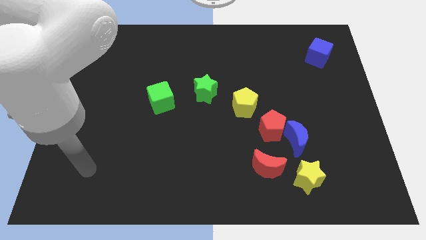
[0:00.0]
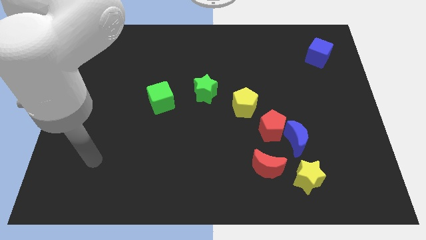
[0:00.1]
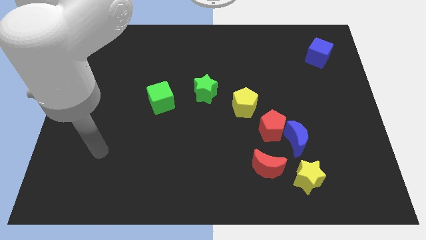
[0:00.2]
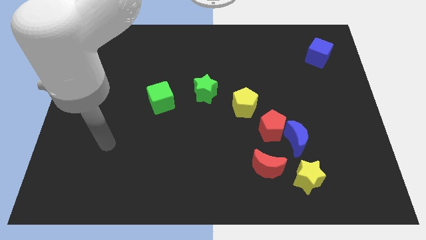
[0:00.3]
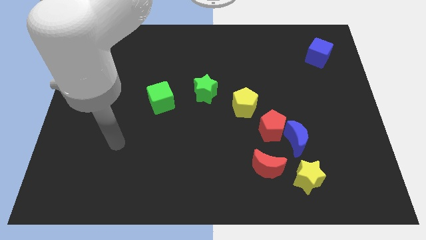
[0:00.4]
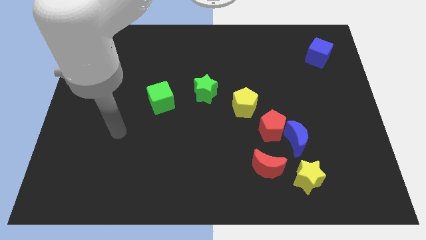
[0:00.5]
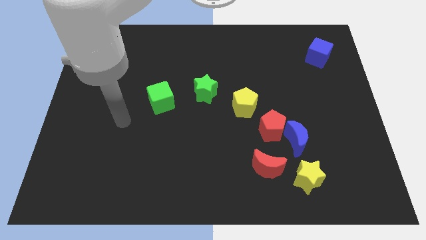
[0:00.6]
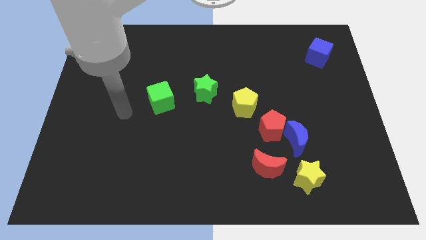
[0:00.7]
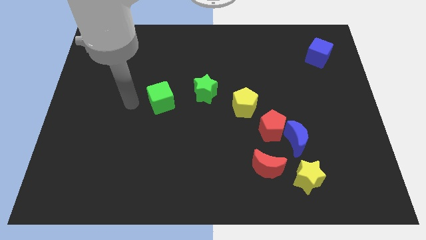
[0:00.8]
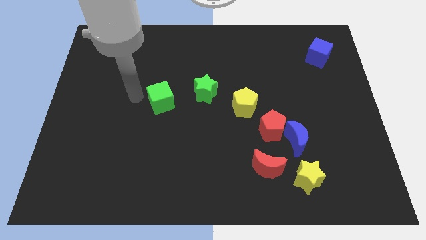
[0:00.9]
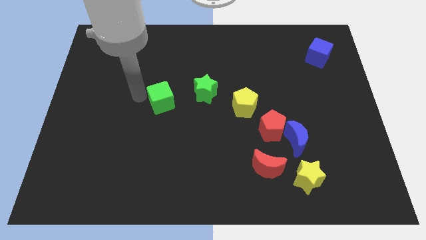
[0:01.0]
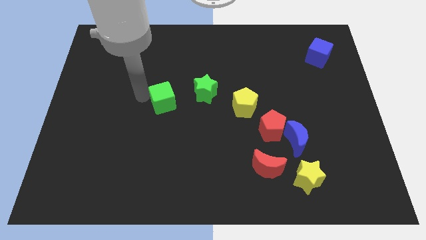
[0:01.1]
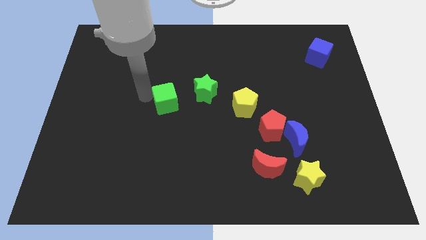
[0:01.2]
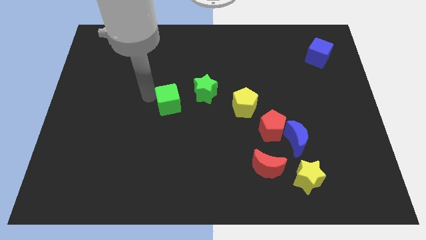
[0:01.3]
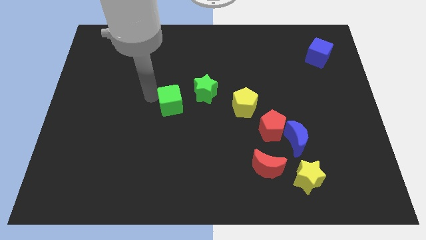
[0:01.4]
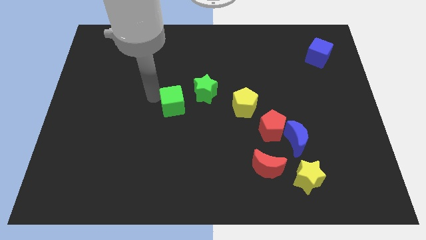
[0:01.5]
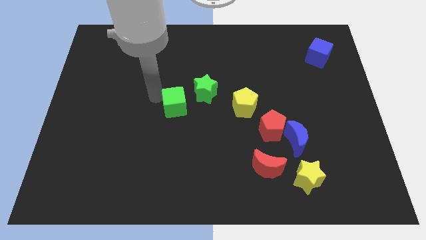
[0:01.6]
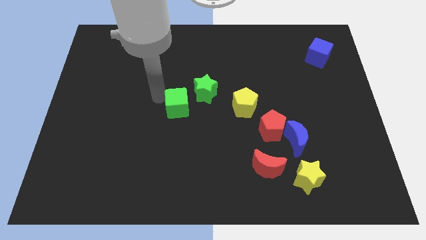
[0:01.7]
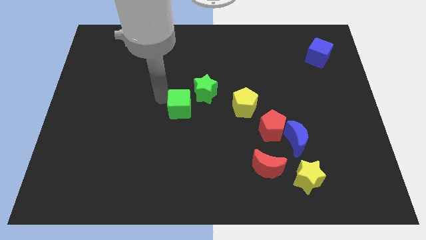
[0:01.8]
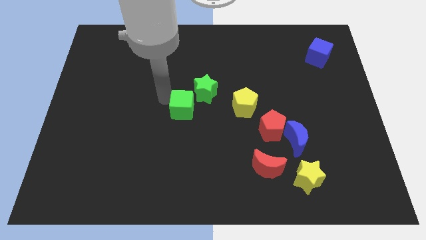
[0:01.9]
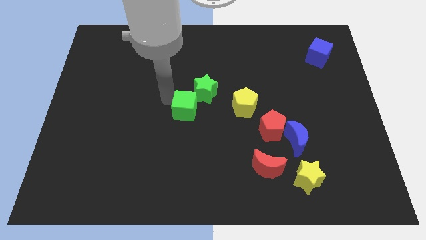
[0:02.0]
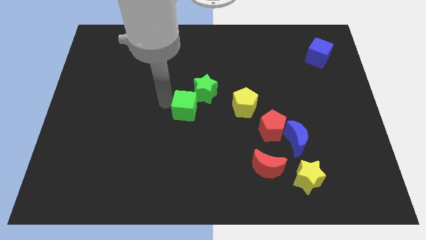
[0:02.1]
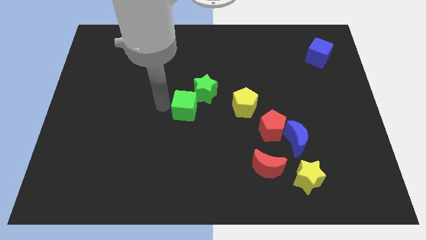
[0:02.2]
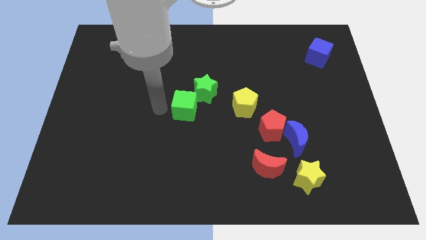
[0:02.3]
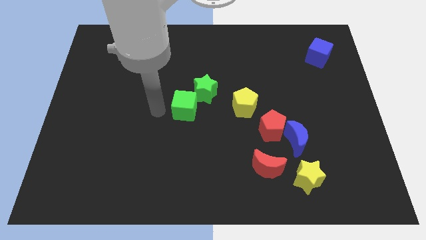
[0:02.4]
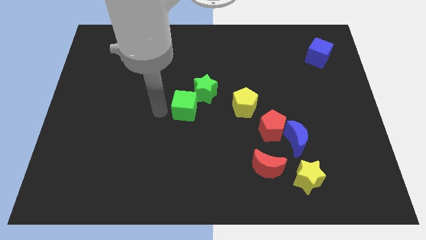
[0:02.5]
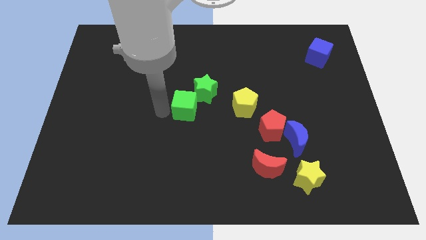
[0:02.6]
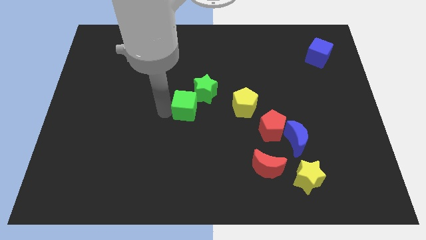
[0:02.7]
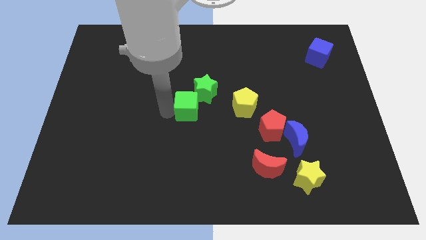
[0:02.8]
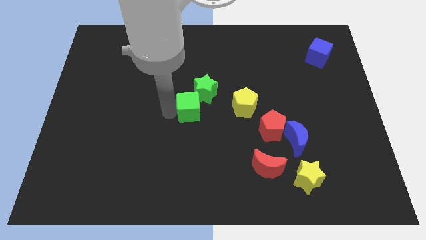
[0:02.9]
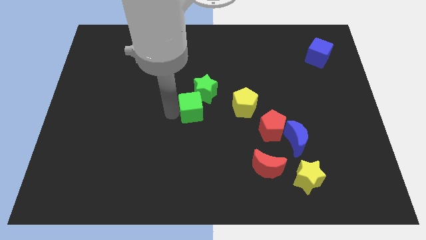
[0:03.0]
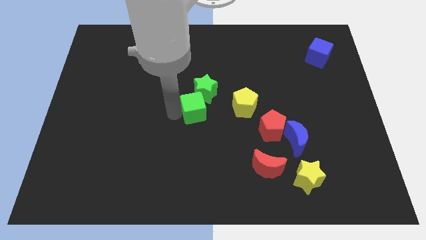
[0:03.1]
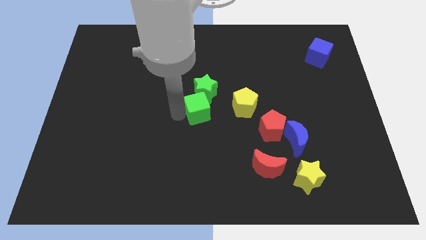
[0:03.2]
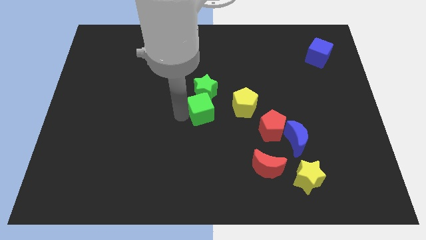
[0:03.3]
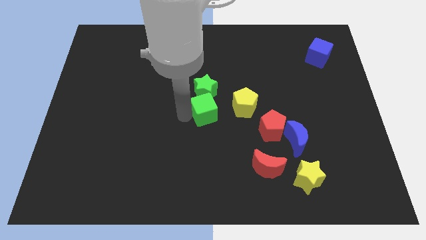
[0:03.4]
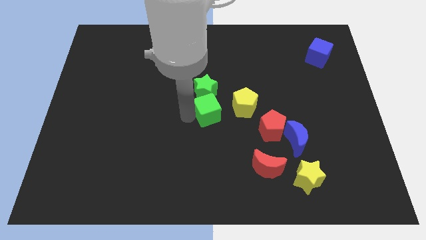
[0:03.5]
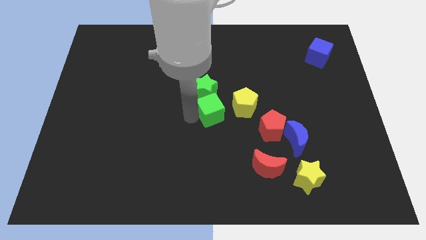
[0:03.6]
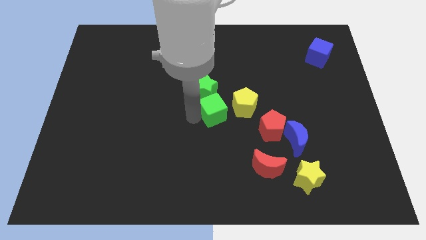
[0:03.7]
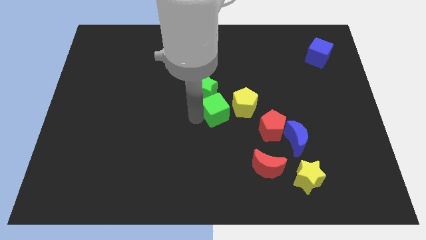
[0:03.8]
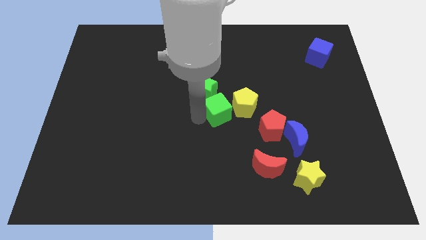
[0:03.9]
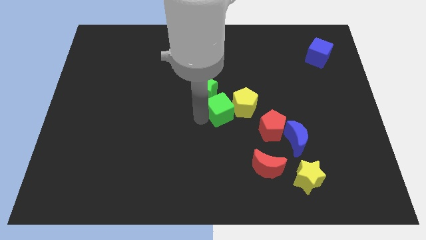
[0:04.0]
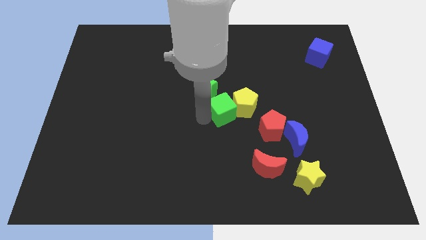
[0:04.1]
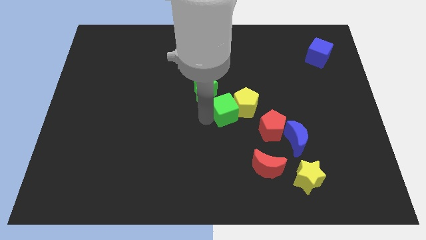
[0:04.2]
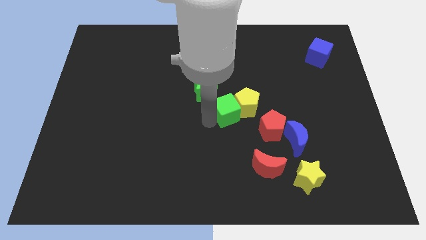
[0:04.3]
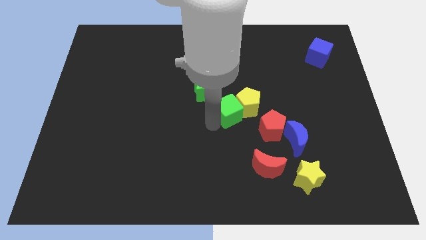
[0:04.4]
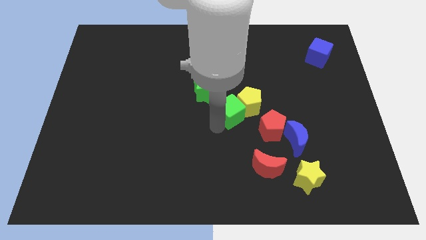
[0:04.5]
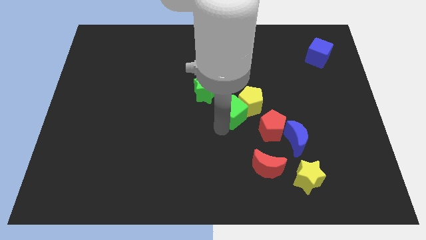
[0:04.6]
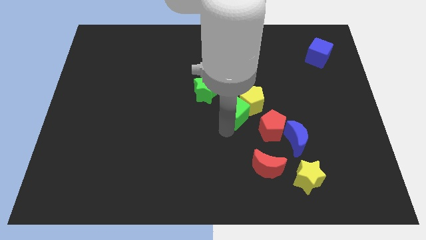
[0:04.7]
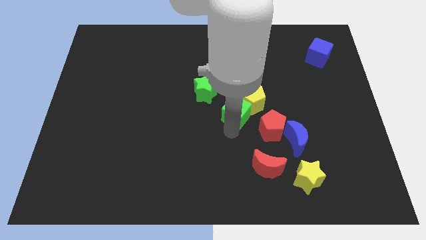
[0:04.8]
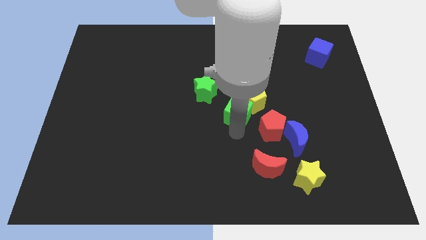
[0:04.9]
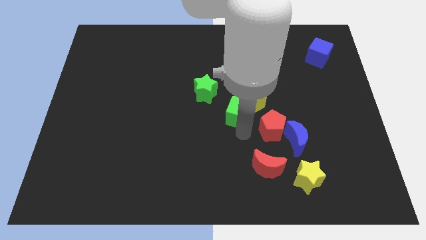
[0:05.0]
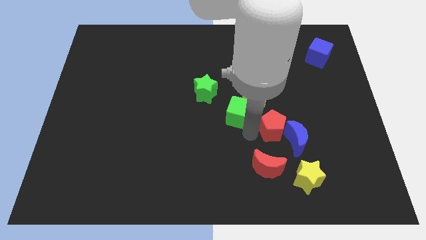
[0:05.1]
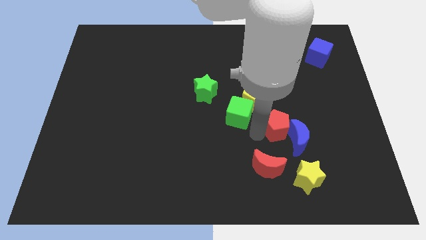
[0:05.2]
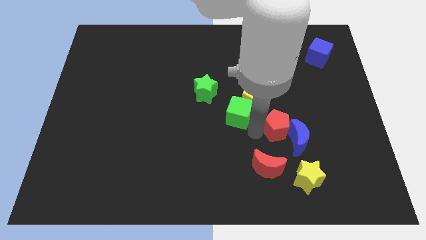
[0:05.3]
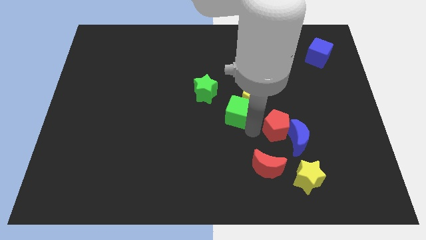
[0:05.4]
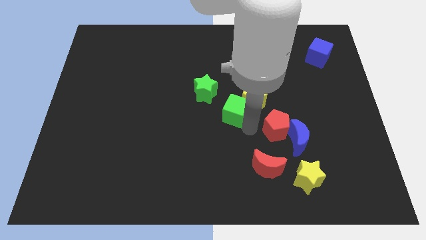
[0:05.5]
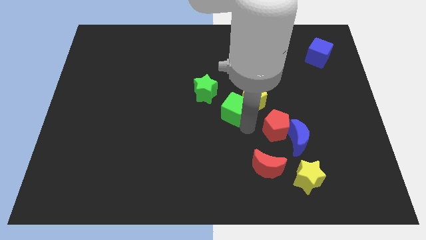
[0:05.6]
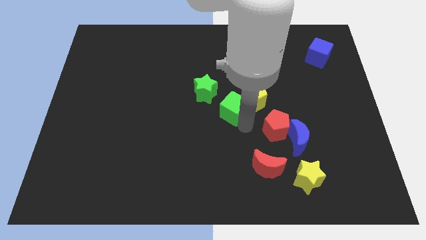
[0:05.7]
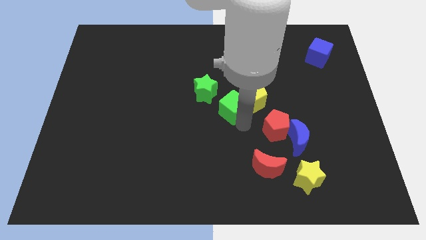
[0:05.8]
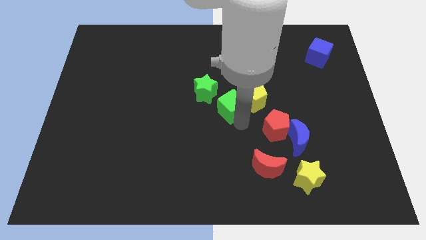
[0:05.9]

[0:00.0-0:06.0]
put the green cube to the right side of the green star
